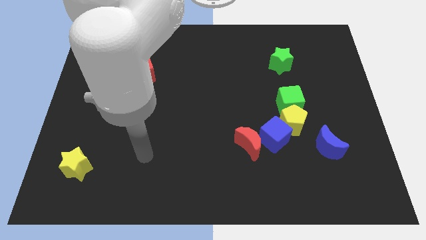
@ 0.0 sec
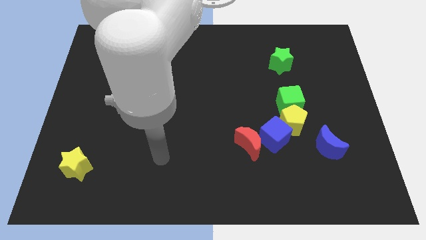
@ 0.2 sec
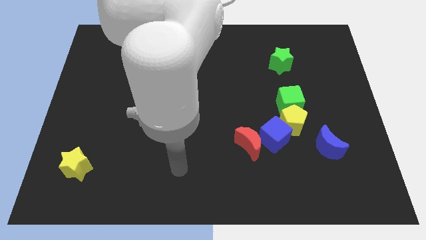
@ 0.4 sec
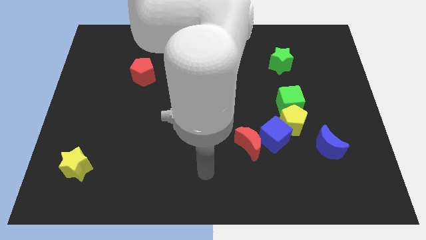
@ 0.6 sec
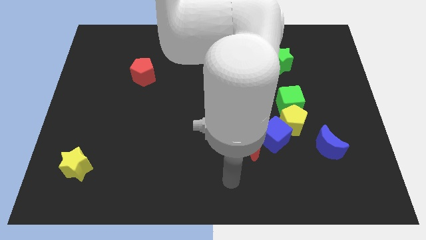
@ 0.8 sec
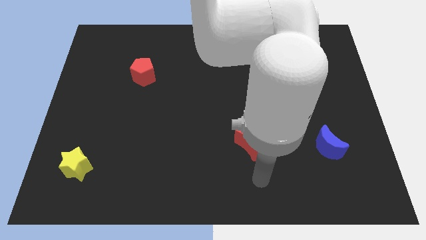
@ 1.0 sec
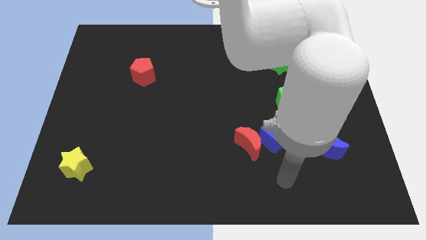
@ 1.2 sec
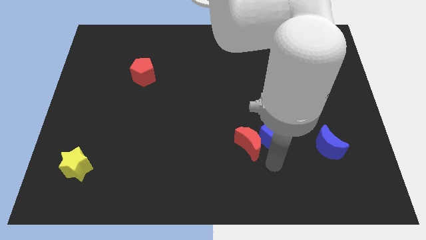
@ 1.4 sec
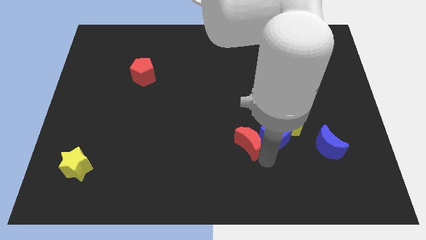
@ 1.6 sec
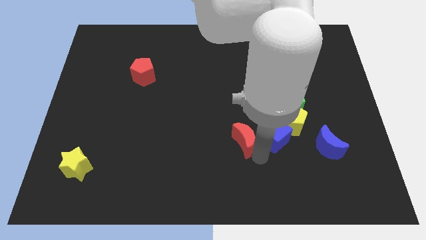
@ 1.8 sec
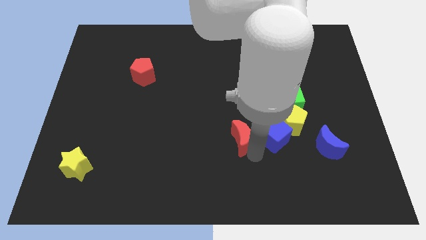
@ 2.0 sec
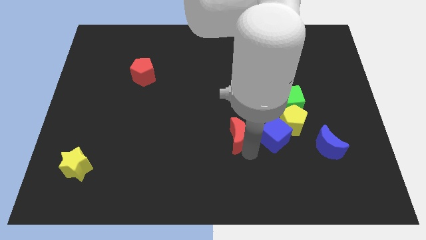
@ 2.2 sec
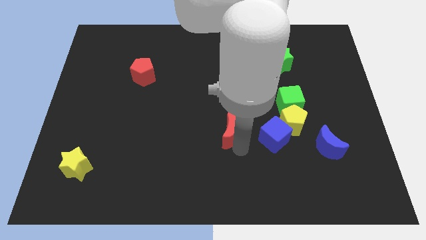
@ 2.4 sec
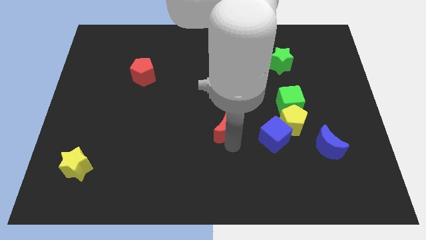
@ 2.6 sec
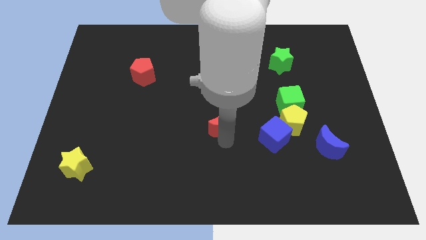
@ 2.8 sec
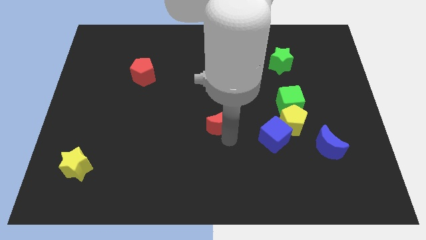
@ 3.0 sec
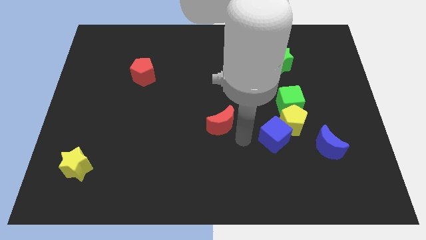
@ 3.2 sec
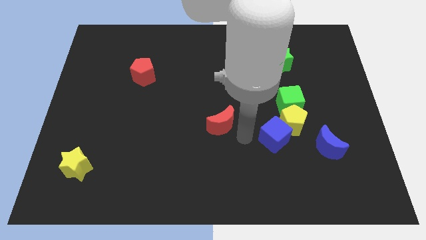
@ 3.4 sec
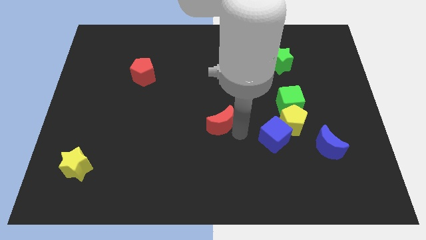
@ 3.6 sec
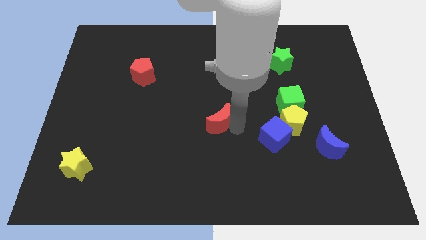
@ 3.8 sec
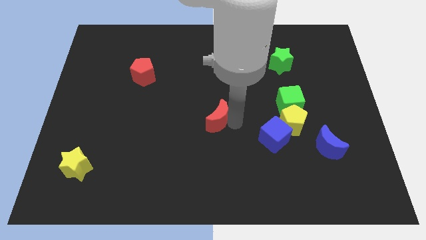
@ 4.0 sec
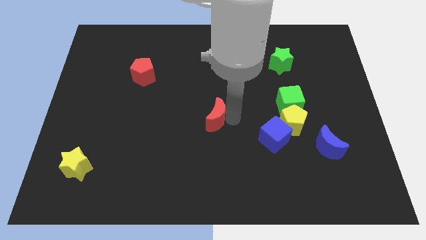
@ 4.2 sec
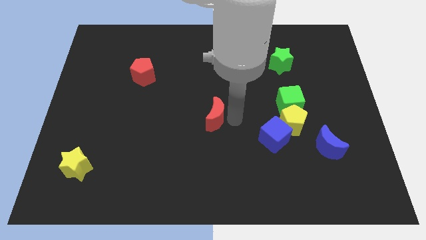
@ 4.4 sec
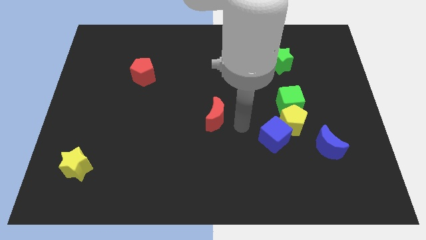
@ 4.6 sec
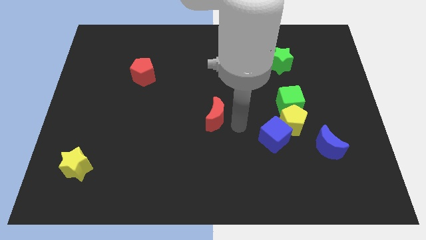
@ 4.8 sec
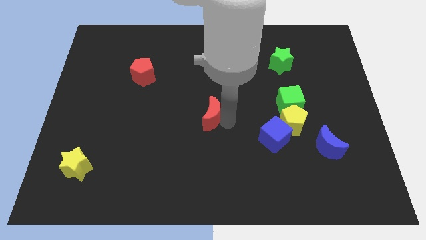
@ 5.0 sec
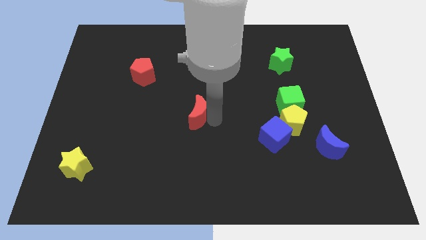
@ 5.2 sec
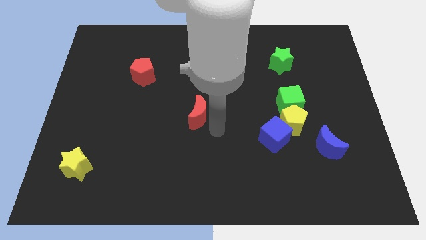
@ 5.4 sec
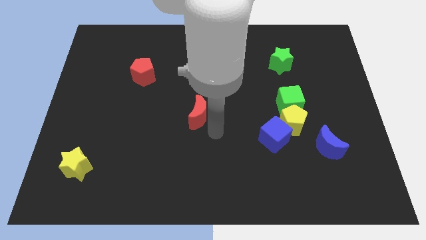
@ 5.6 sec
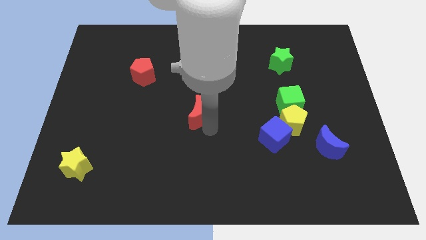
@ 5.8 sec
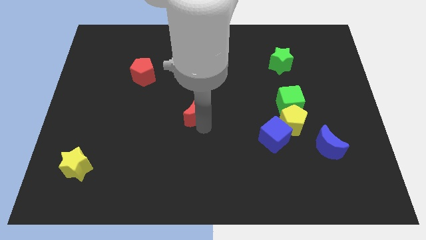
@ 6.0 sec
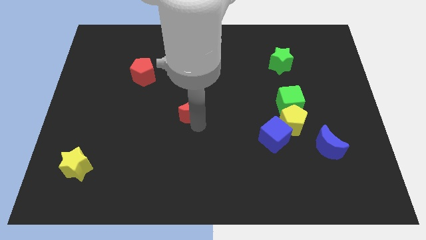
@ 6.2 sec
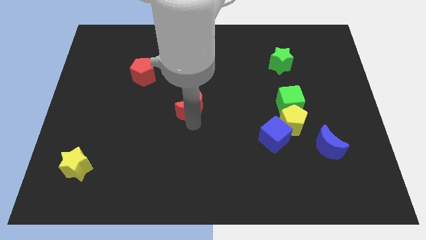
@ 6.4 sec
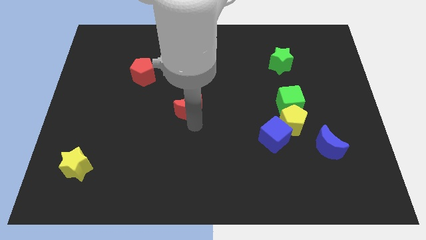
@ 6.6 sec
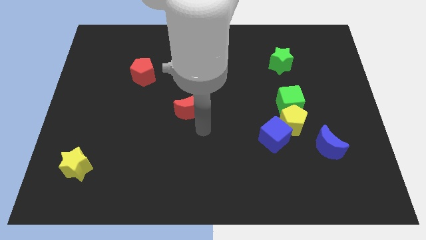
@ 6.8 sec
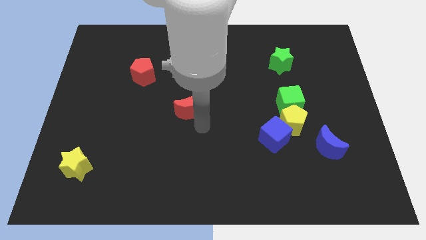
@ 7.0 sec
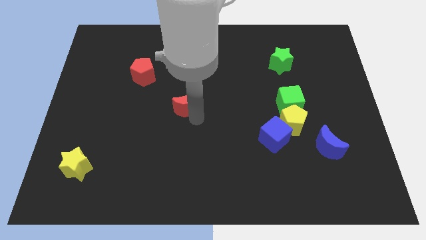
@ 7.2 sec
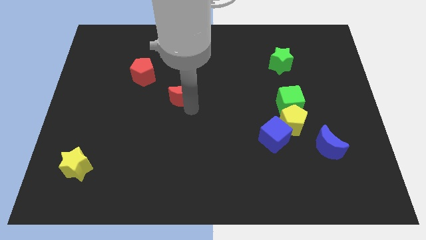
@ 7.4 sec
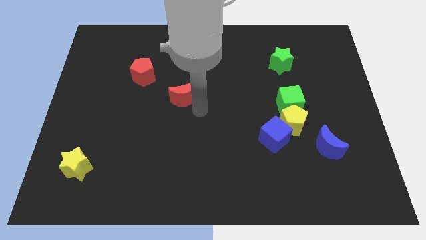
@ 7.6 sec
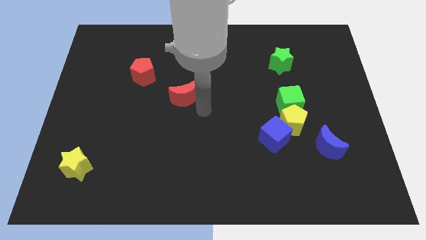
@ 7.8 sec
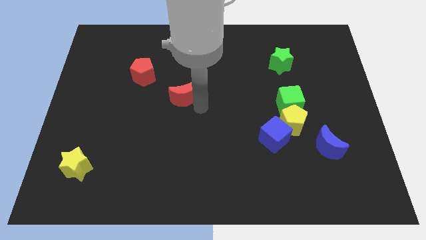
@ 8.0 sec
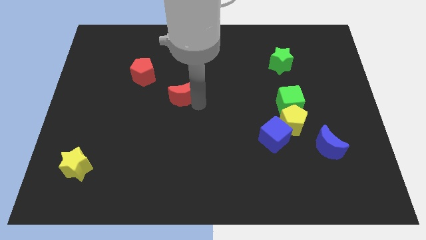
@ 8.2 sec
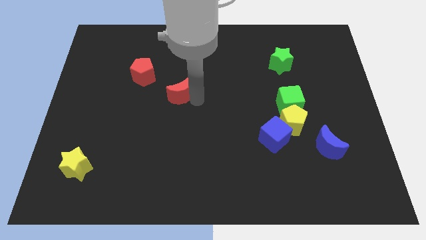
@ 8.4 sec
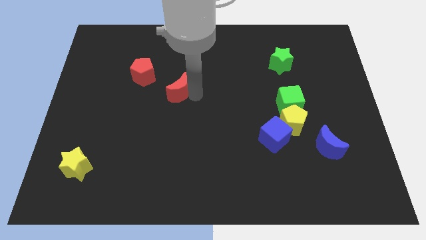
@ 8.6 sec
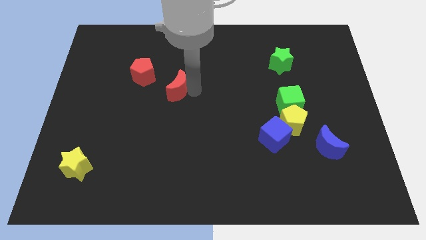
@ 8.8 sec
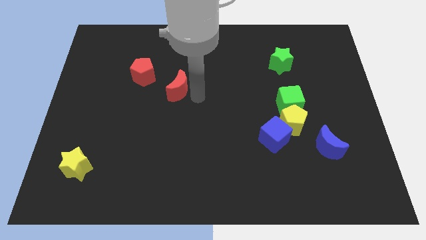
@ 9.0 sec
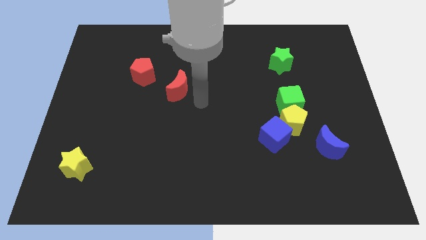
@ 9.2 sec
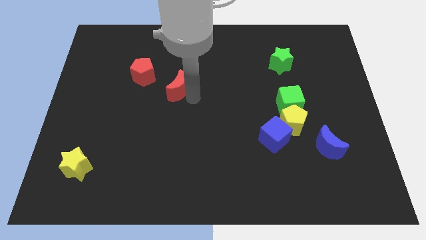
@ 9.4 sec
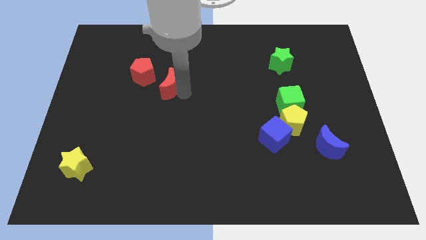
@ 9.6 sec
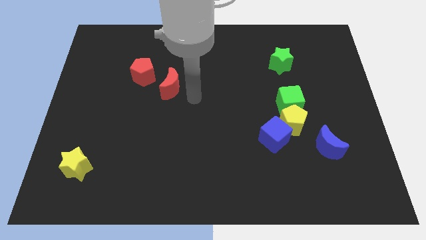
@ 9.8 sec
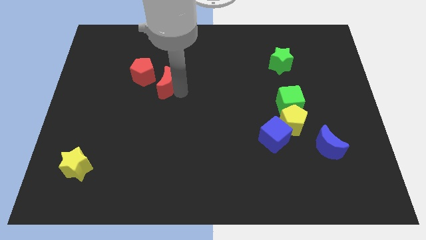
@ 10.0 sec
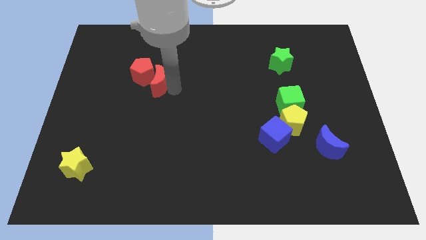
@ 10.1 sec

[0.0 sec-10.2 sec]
move the red moon to the red pentagon

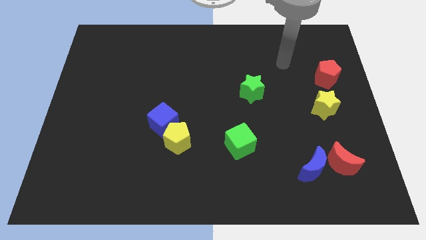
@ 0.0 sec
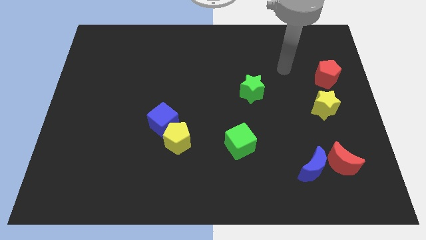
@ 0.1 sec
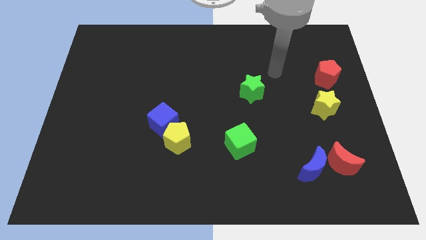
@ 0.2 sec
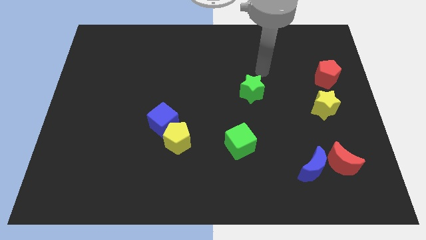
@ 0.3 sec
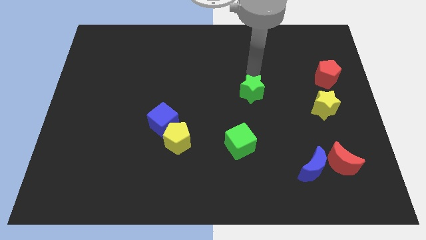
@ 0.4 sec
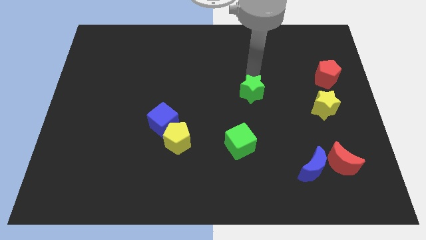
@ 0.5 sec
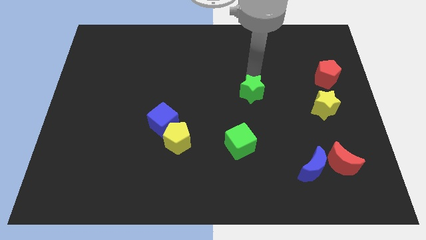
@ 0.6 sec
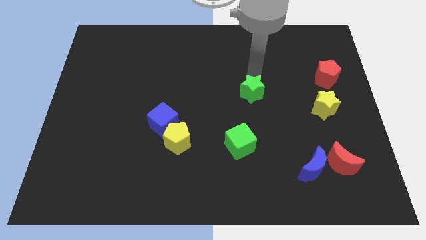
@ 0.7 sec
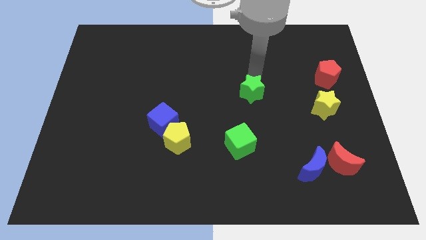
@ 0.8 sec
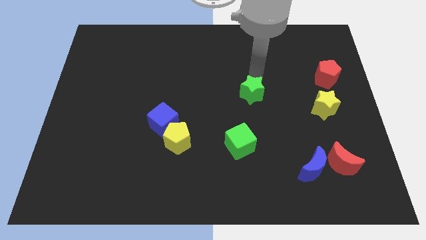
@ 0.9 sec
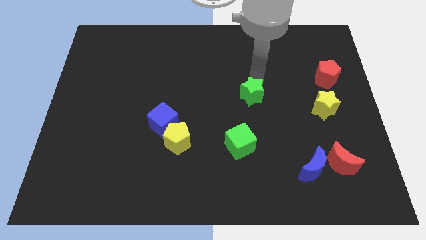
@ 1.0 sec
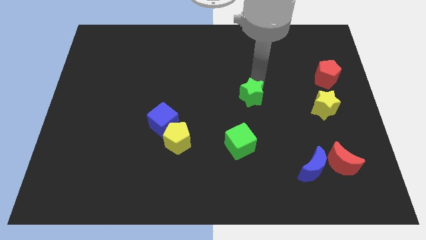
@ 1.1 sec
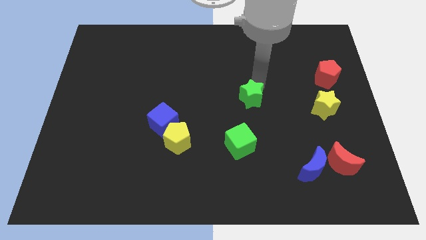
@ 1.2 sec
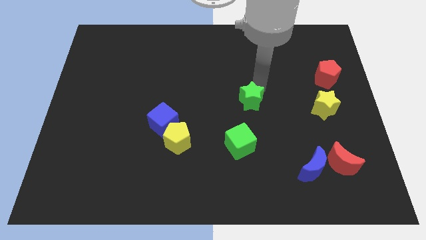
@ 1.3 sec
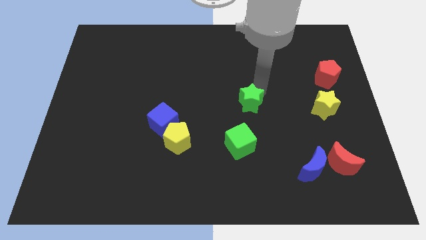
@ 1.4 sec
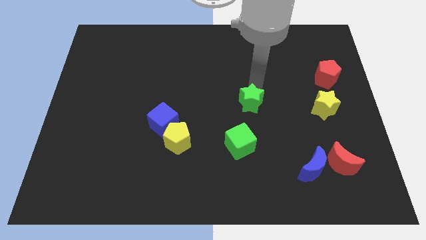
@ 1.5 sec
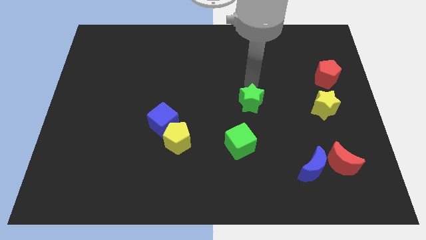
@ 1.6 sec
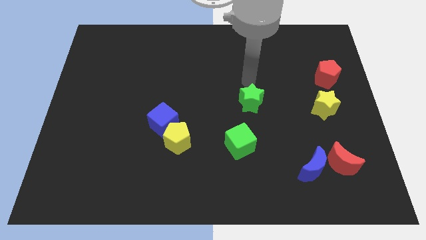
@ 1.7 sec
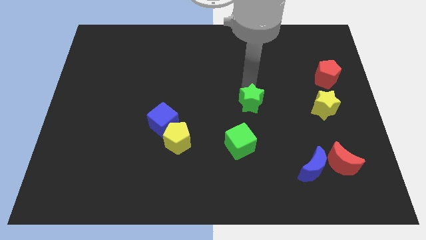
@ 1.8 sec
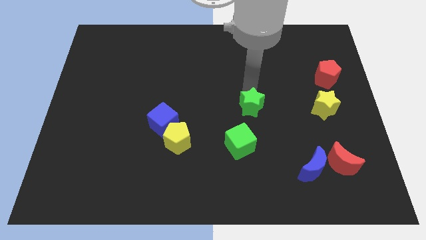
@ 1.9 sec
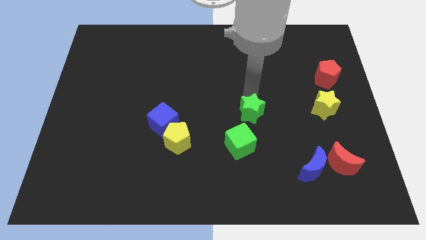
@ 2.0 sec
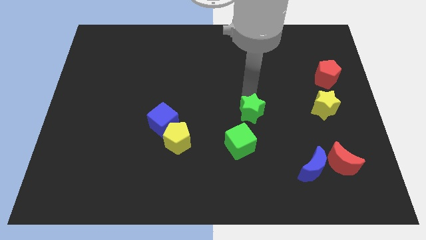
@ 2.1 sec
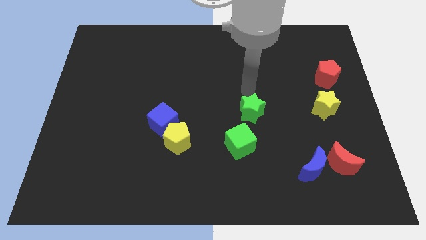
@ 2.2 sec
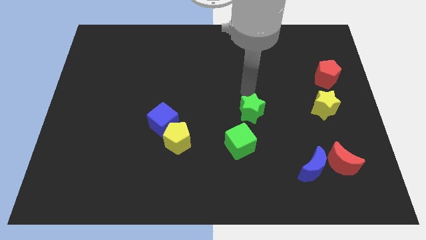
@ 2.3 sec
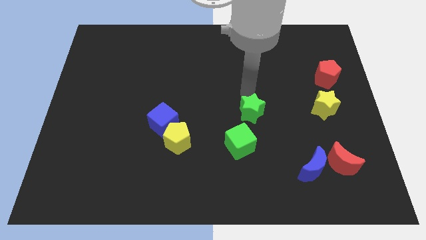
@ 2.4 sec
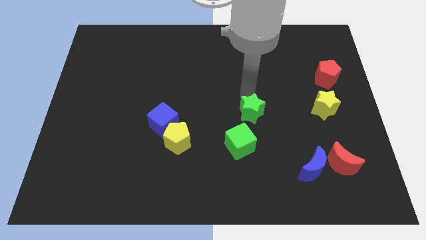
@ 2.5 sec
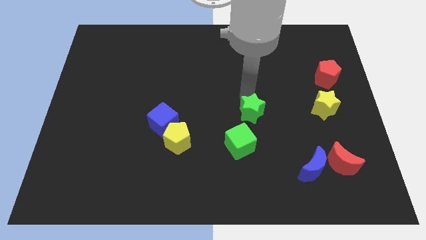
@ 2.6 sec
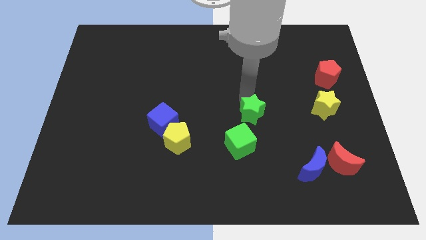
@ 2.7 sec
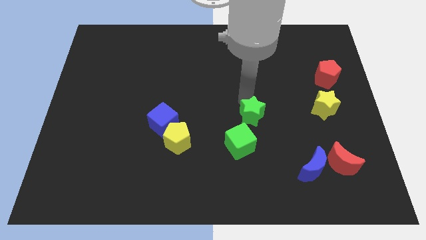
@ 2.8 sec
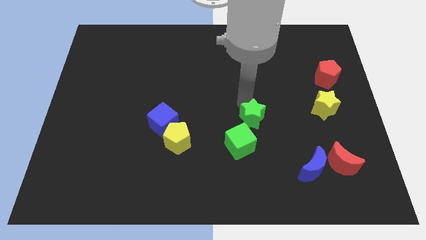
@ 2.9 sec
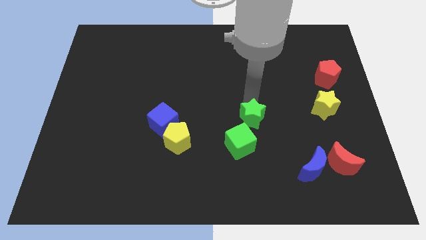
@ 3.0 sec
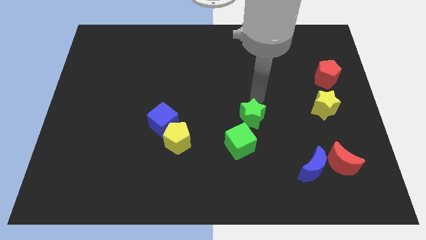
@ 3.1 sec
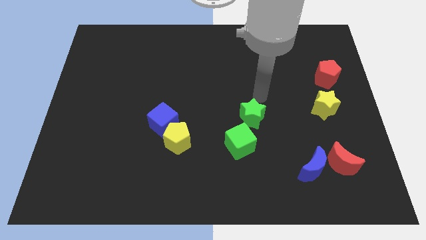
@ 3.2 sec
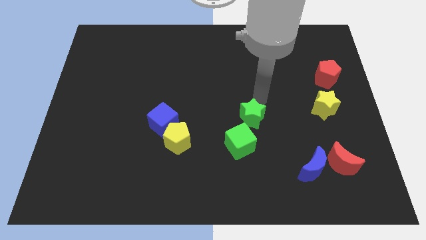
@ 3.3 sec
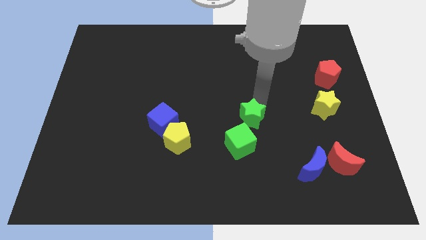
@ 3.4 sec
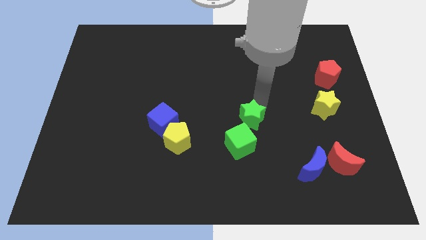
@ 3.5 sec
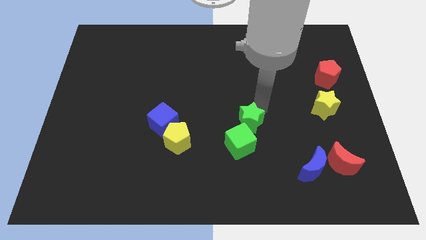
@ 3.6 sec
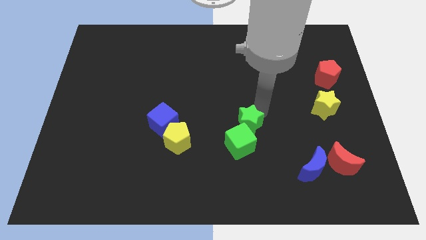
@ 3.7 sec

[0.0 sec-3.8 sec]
slide the green star next to the green cube
